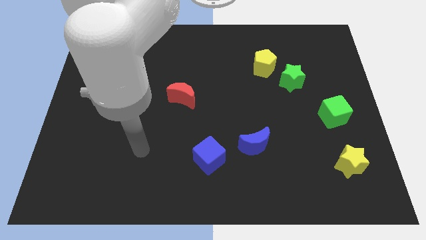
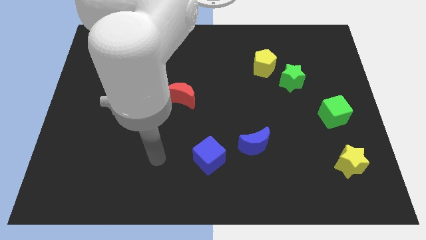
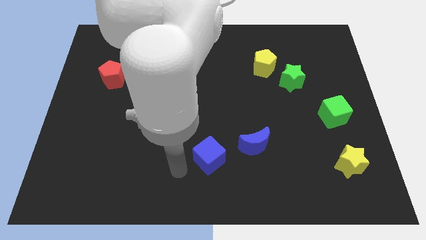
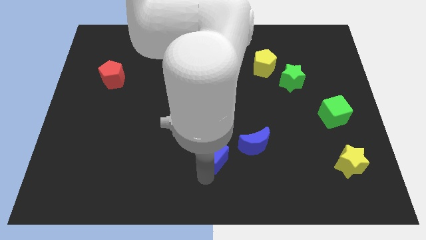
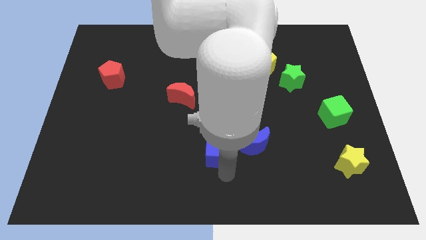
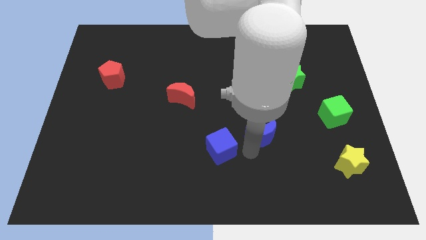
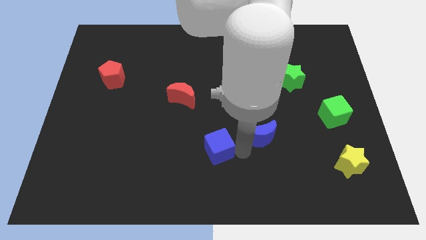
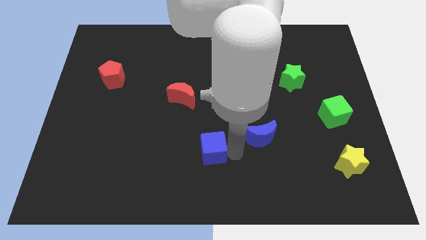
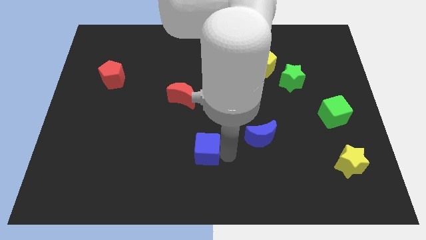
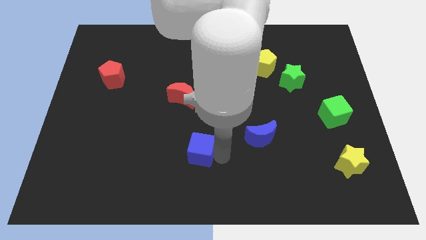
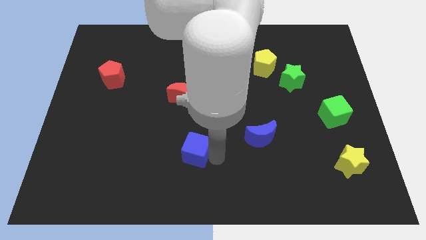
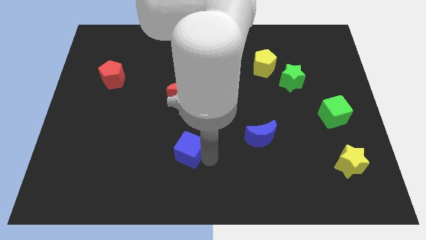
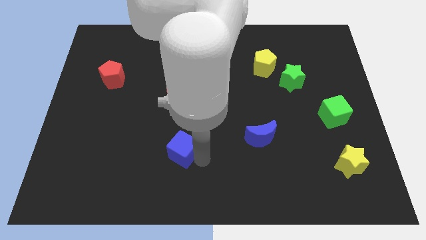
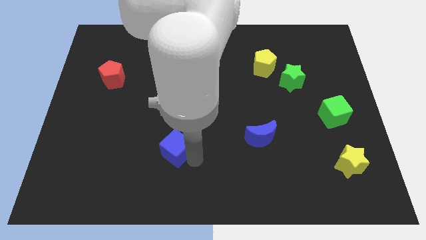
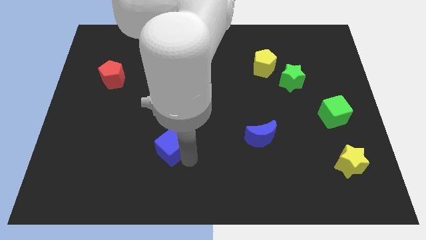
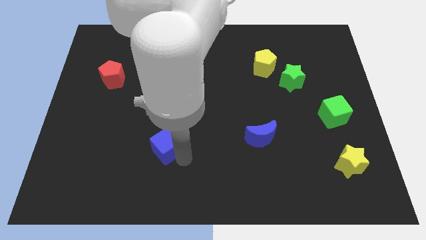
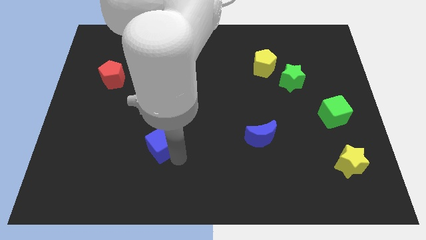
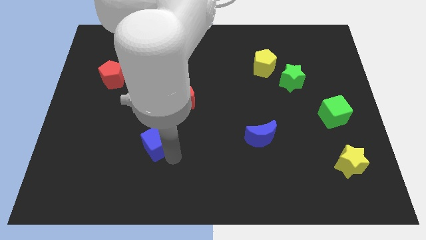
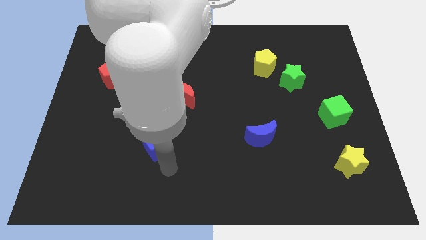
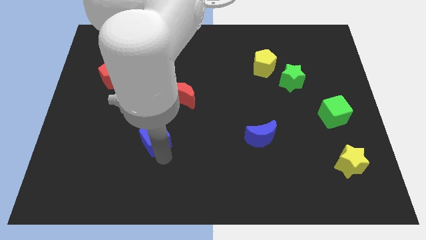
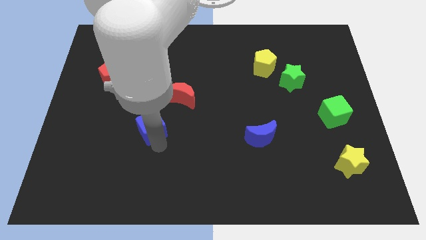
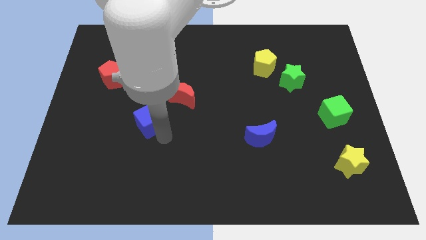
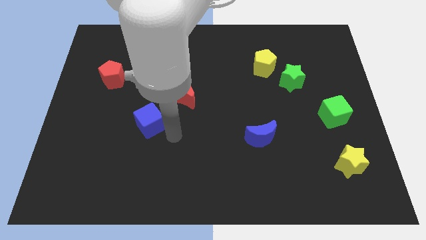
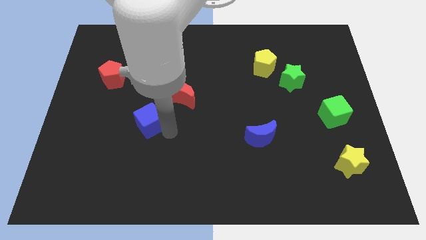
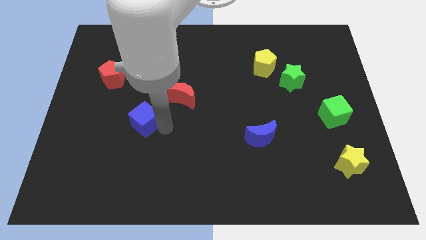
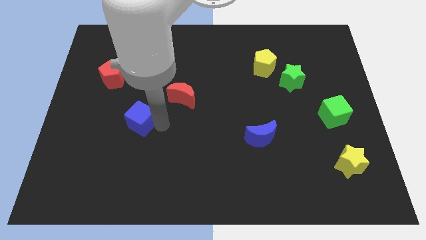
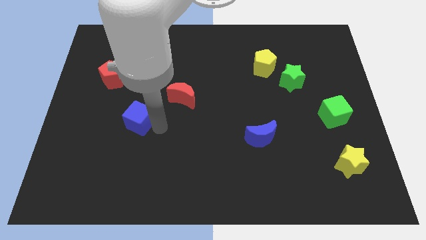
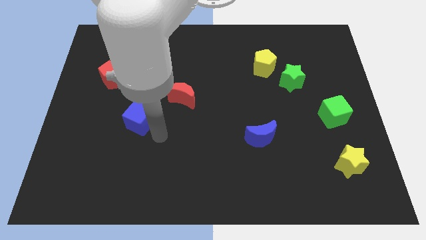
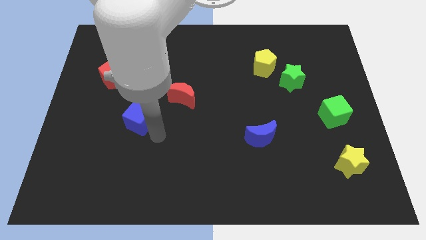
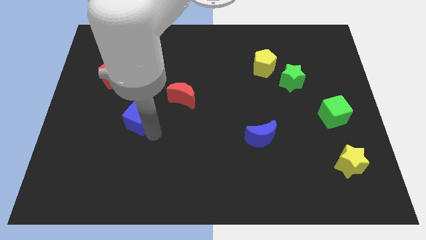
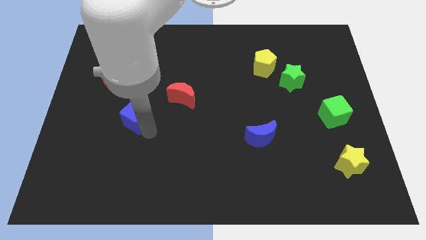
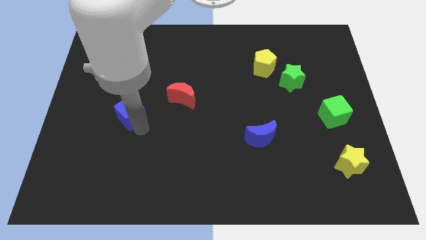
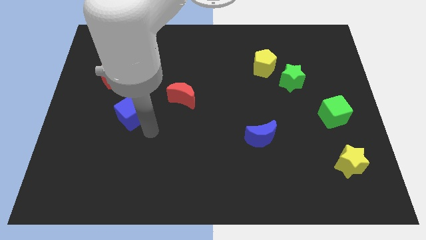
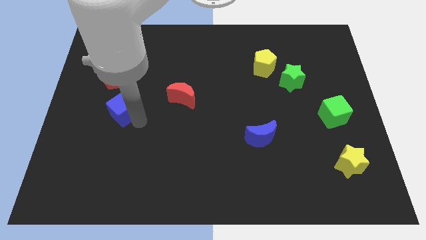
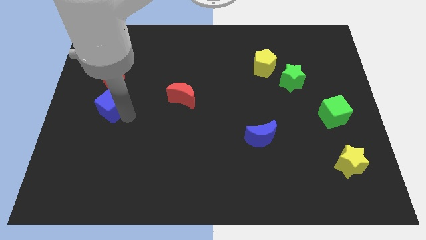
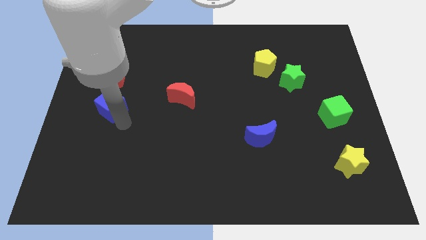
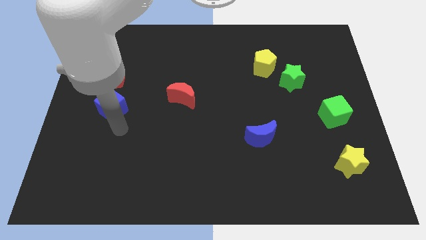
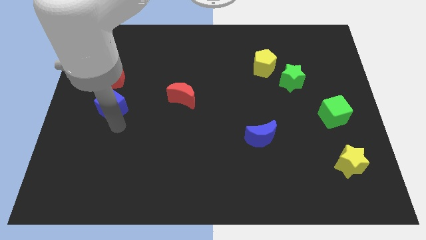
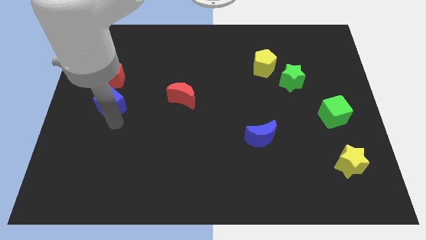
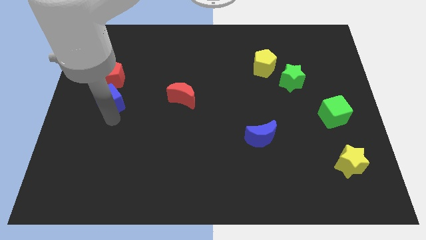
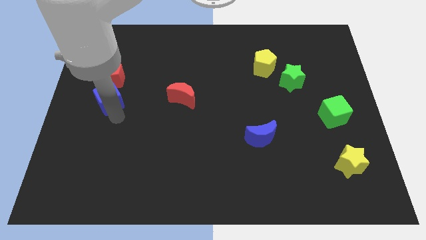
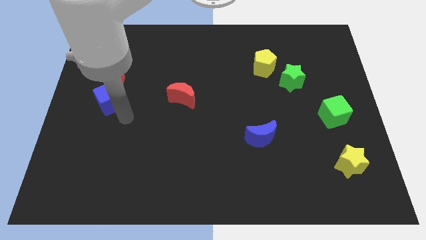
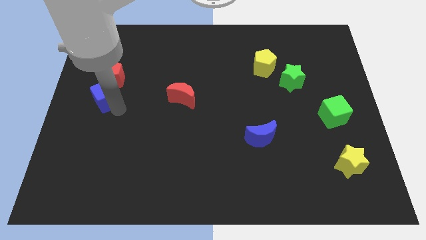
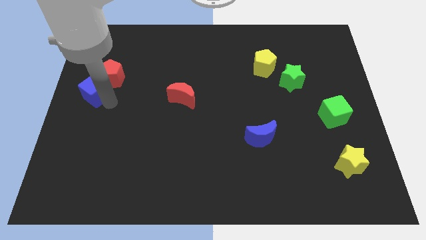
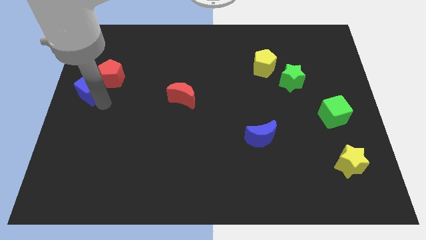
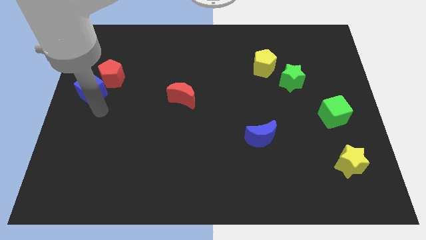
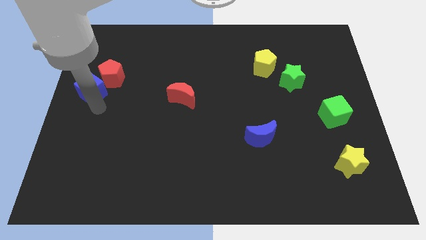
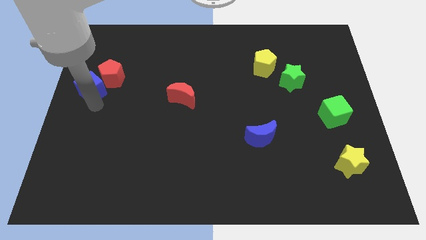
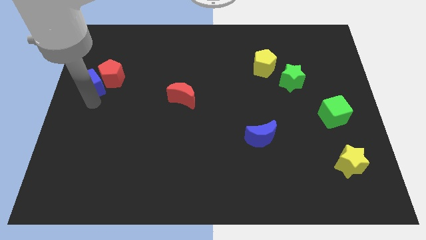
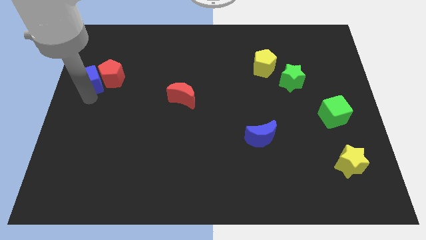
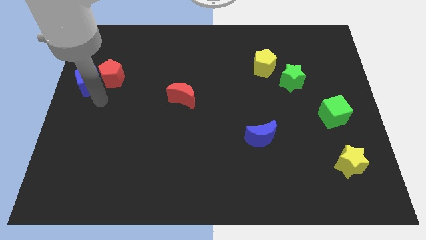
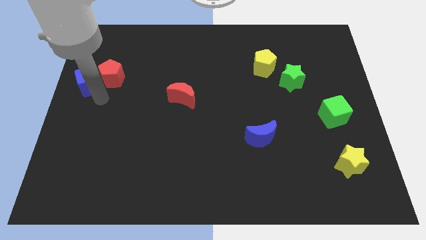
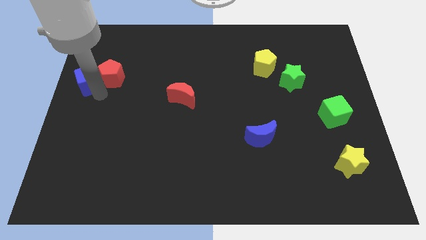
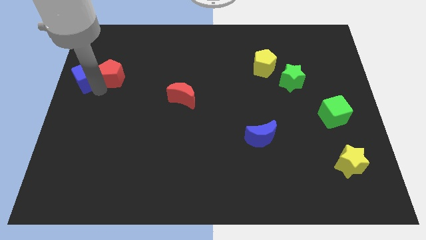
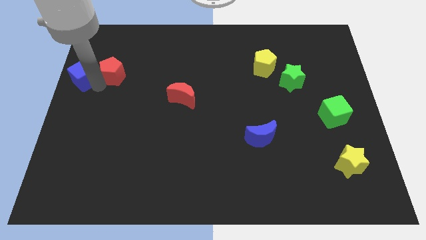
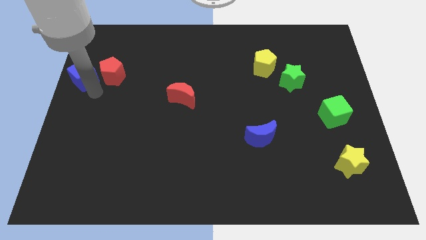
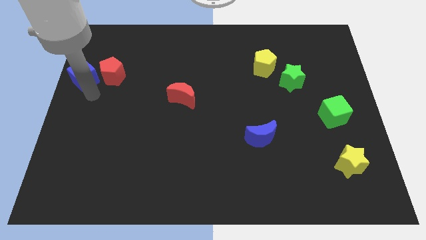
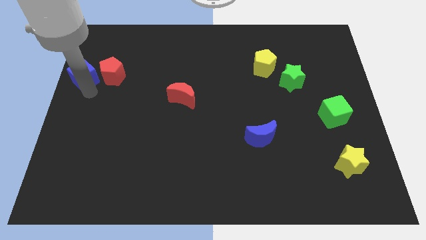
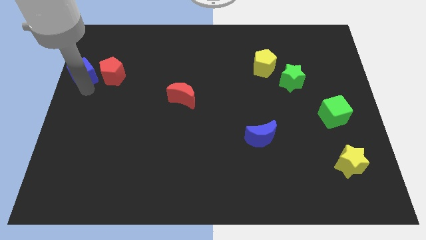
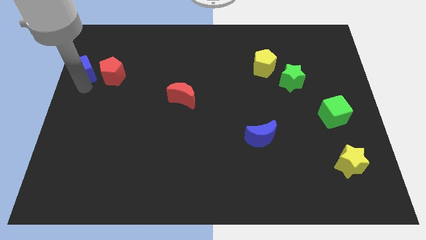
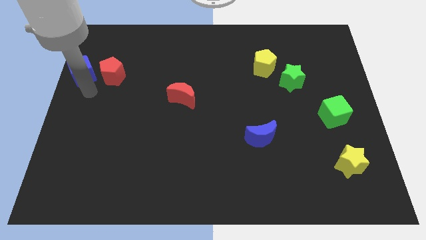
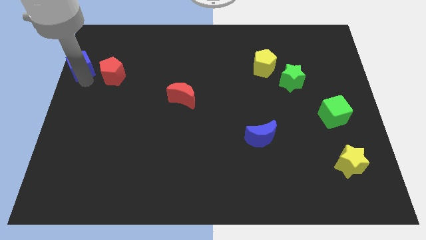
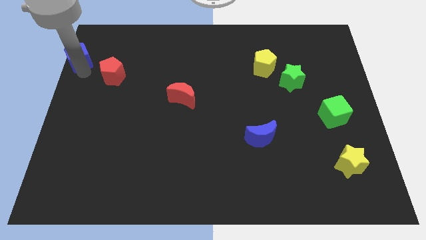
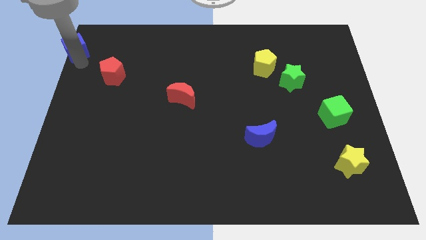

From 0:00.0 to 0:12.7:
push the blue cube to the upper left corner

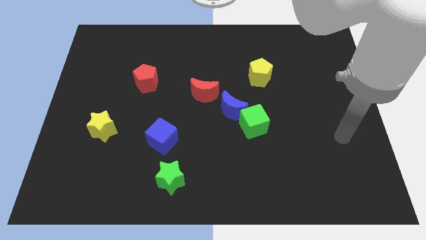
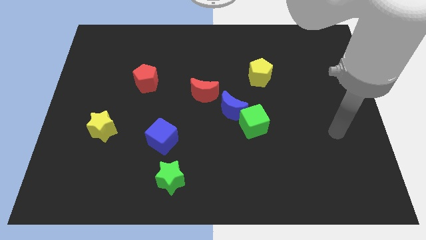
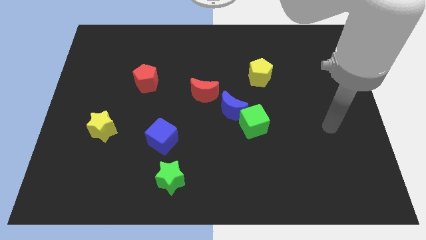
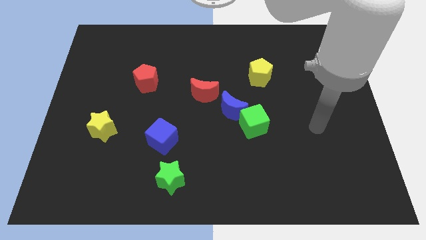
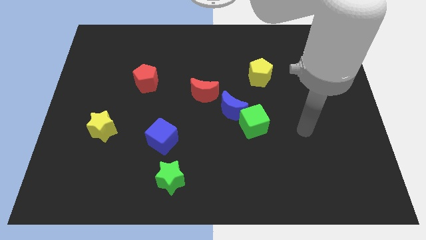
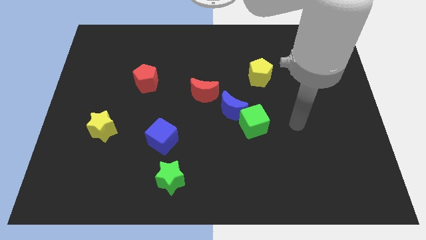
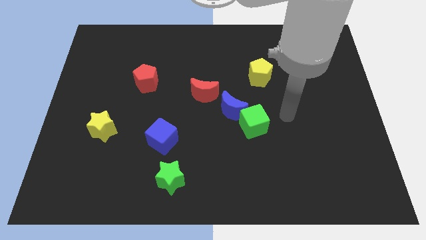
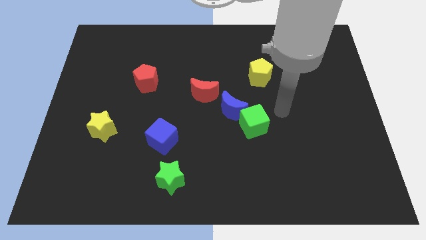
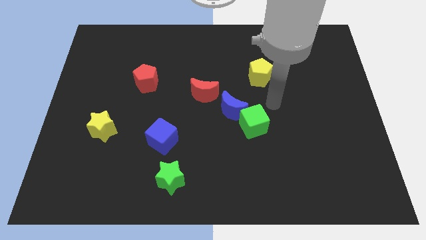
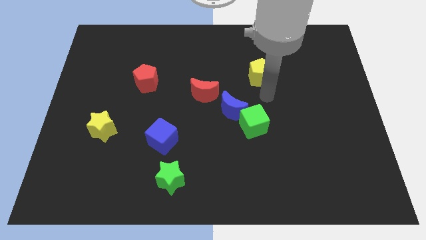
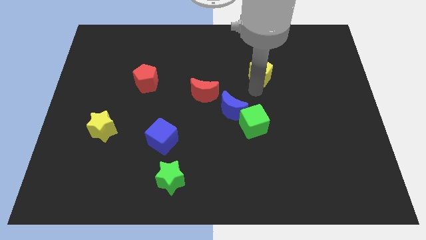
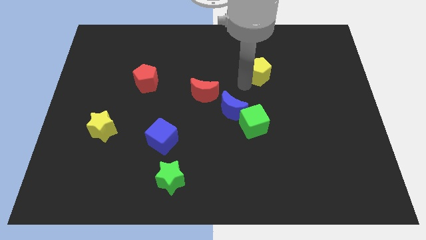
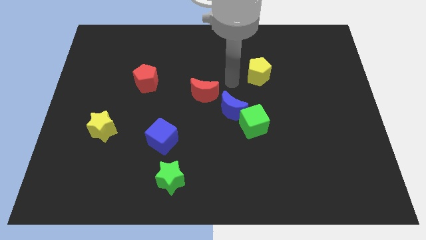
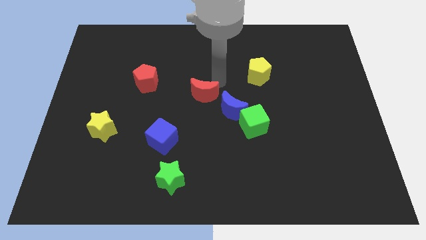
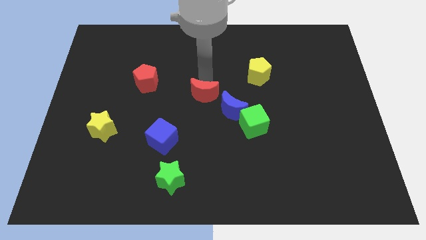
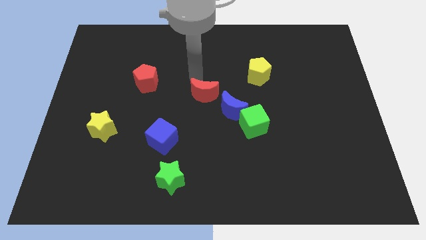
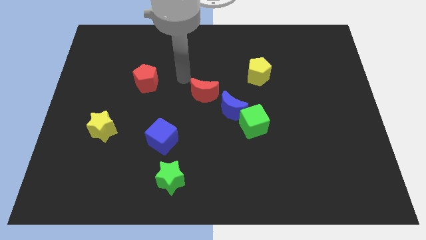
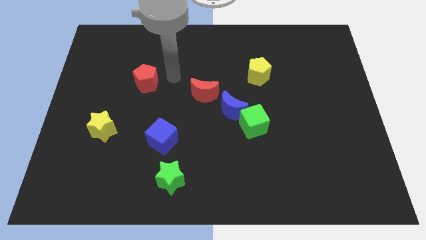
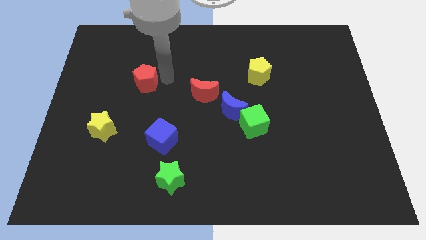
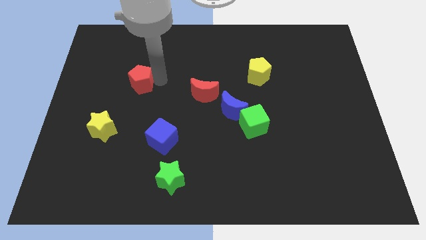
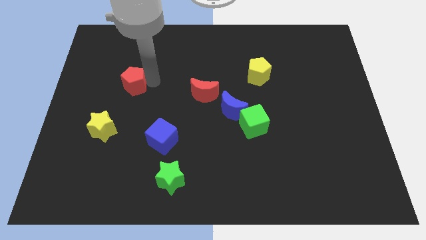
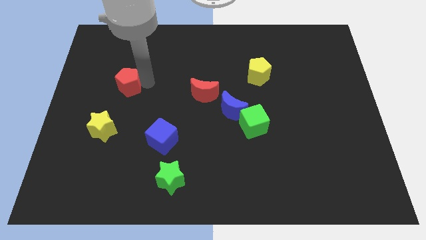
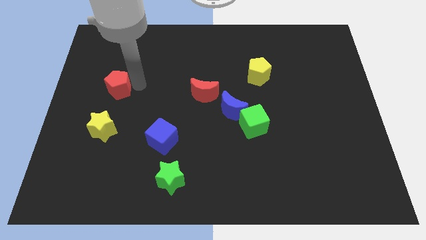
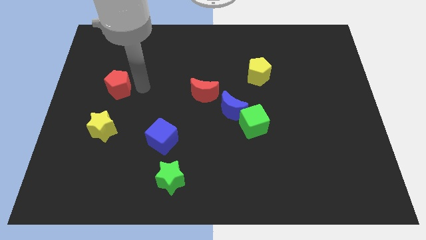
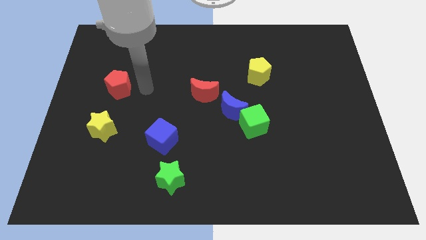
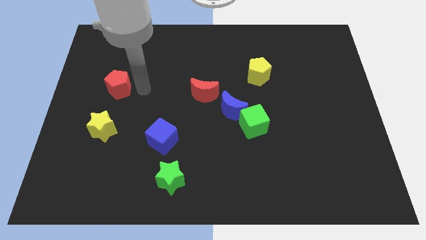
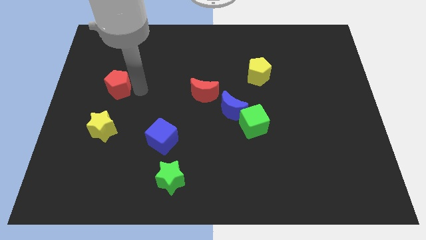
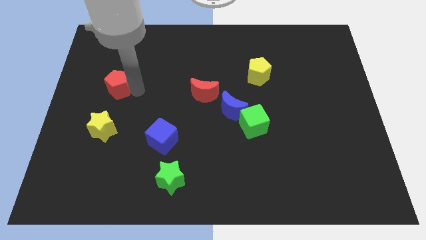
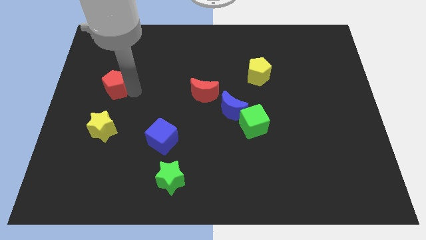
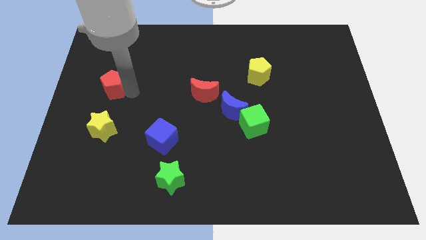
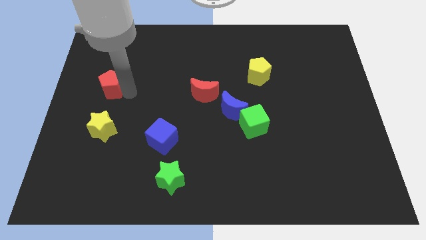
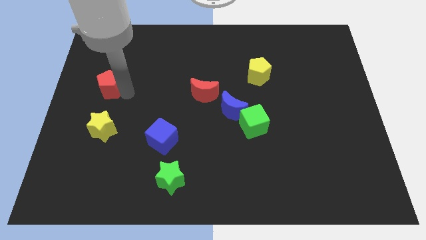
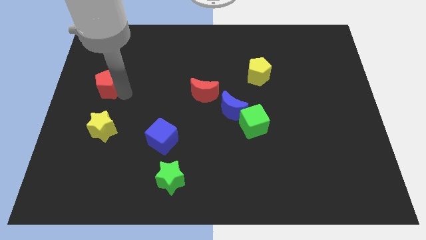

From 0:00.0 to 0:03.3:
slide the red pentagon to the left side of the board
